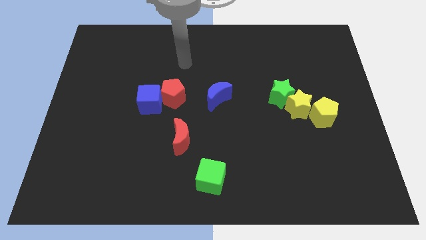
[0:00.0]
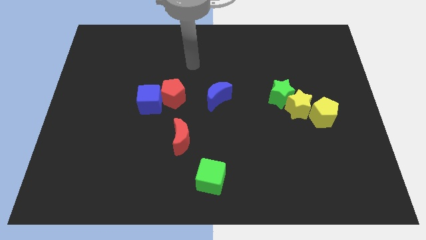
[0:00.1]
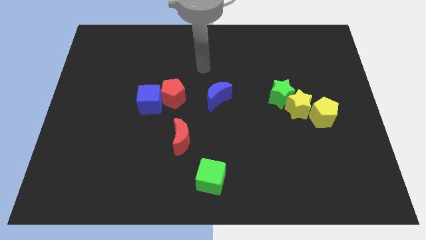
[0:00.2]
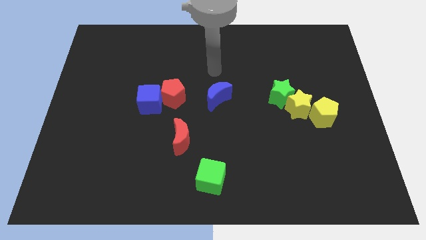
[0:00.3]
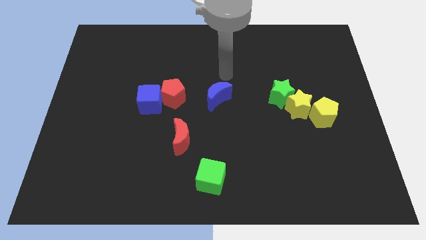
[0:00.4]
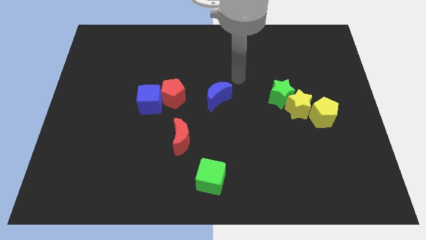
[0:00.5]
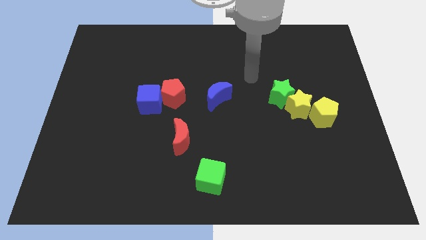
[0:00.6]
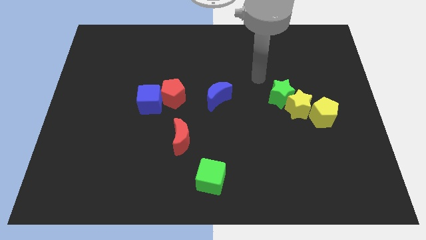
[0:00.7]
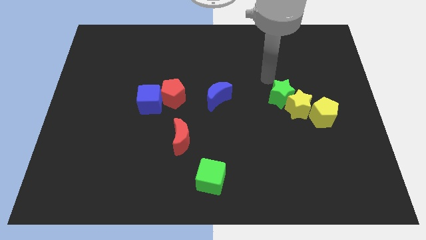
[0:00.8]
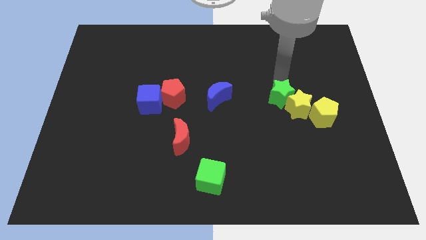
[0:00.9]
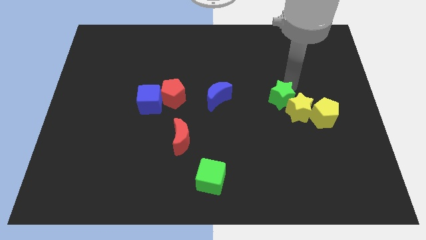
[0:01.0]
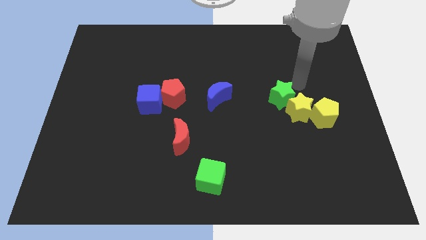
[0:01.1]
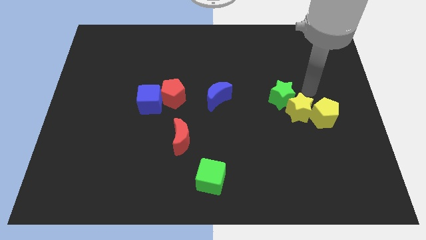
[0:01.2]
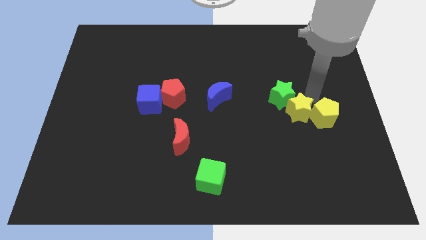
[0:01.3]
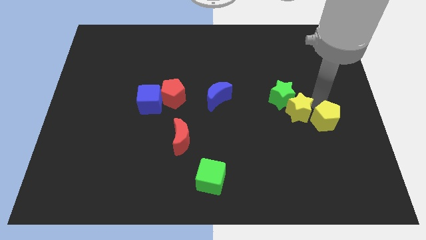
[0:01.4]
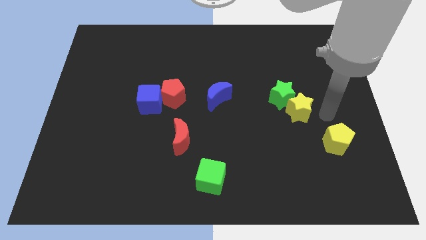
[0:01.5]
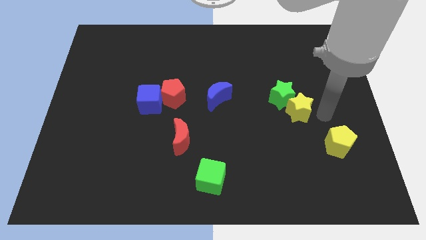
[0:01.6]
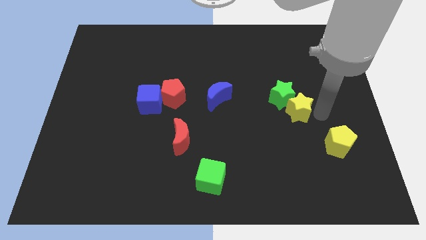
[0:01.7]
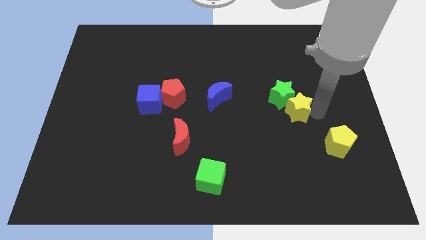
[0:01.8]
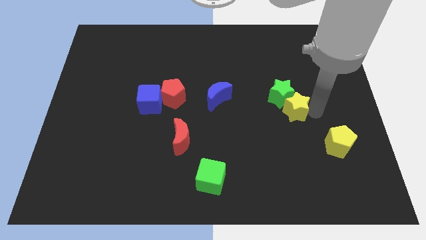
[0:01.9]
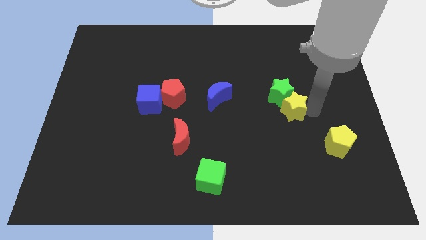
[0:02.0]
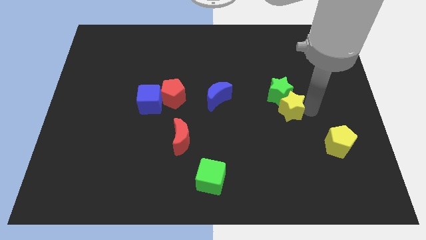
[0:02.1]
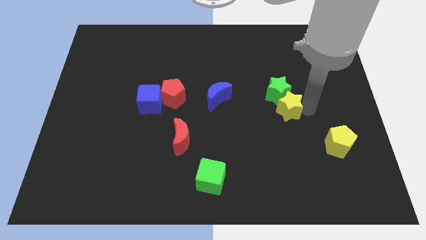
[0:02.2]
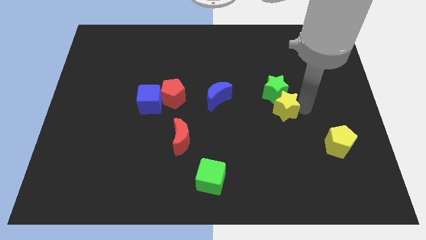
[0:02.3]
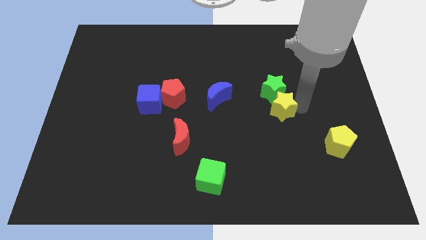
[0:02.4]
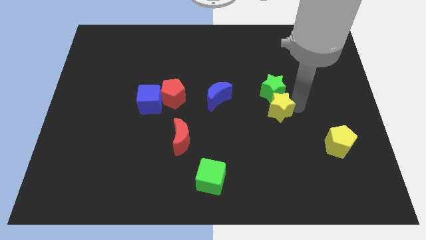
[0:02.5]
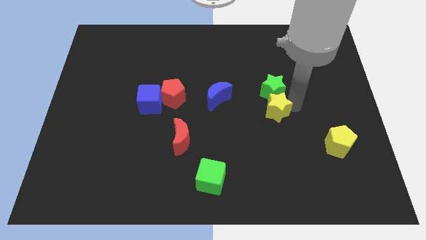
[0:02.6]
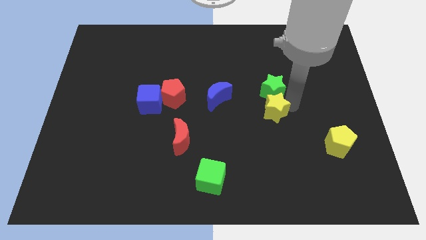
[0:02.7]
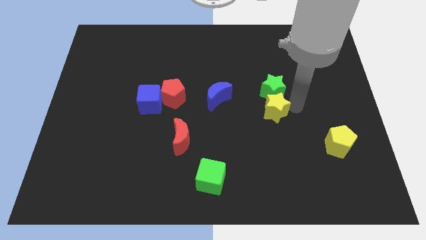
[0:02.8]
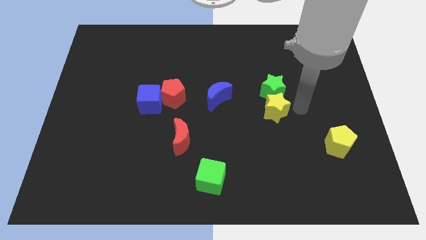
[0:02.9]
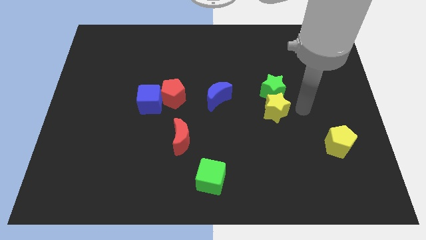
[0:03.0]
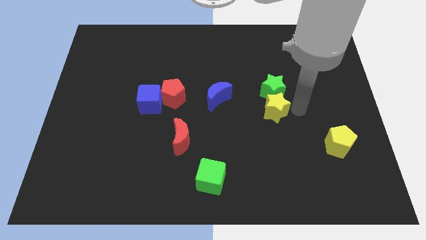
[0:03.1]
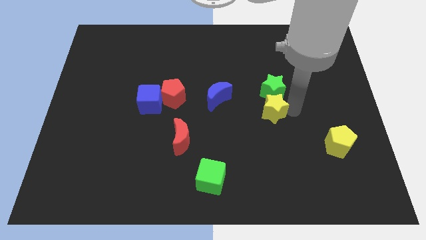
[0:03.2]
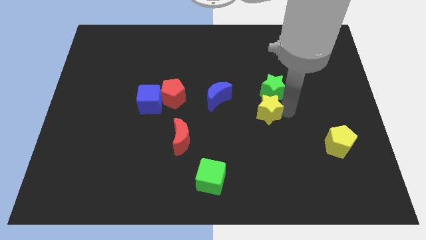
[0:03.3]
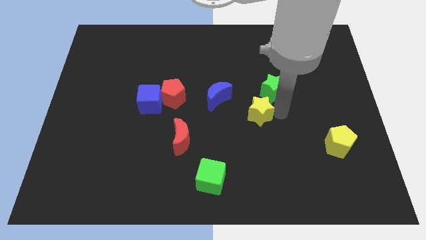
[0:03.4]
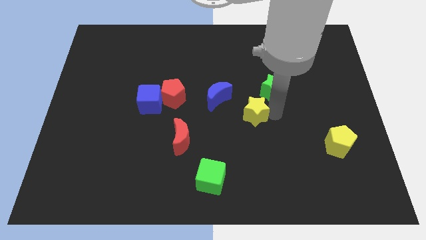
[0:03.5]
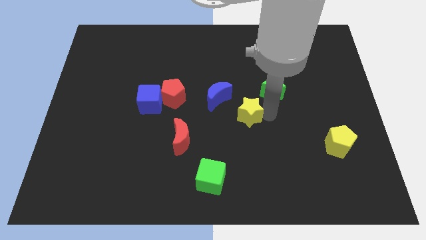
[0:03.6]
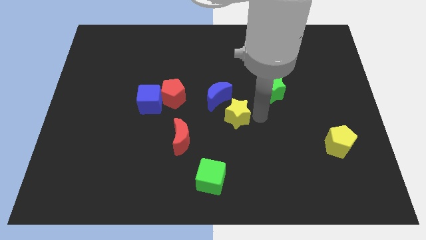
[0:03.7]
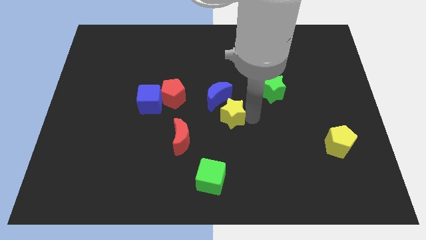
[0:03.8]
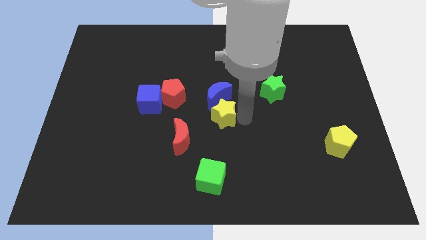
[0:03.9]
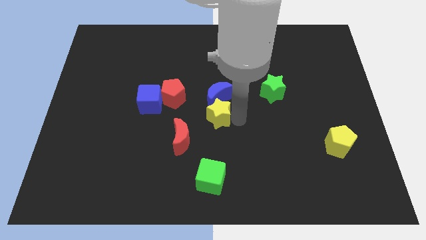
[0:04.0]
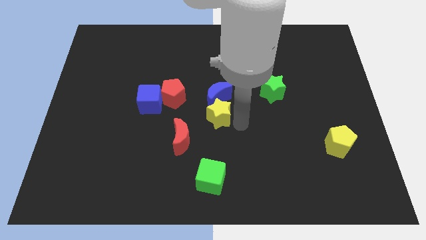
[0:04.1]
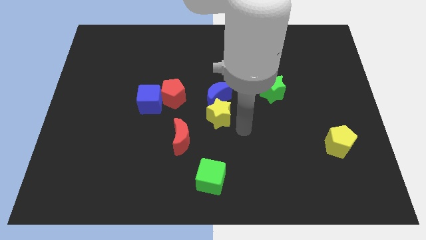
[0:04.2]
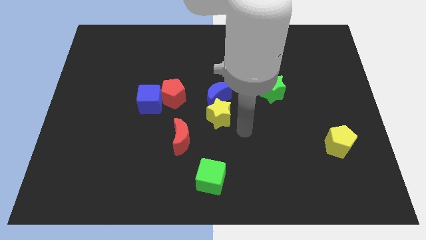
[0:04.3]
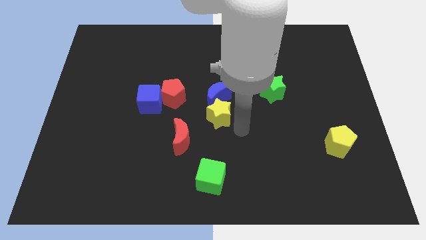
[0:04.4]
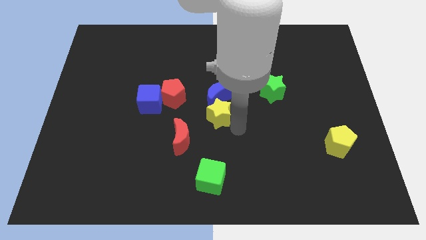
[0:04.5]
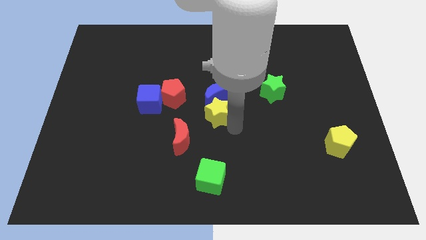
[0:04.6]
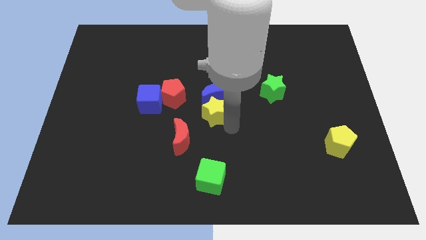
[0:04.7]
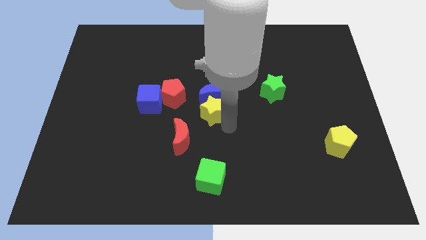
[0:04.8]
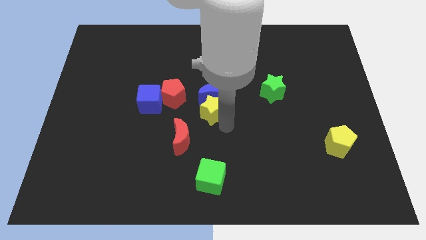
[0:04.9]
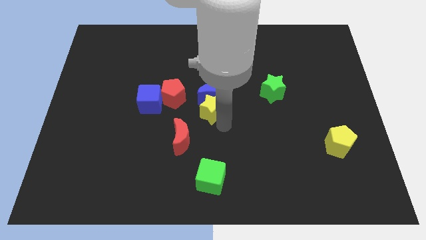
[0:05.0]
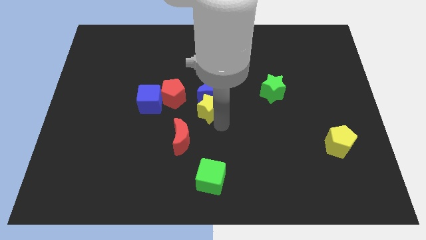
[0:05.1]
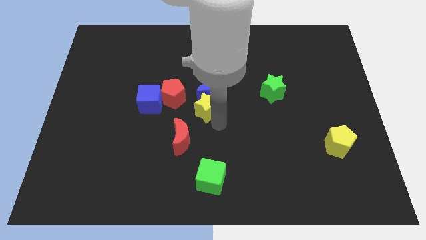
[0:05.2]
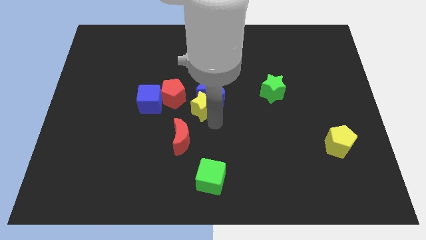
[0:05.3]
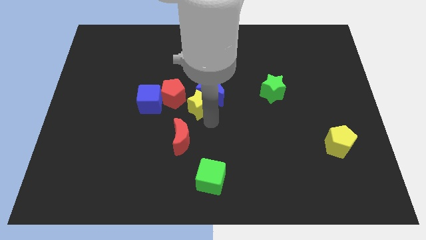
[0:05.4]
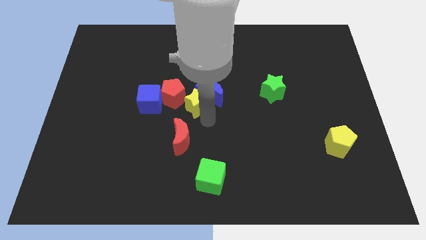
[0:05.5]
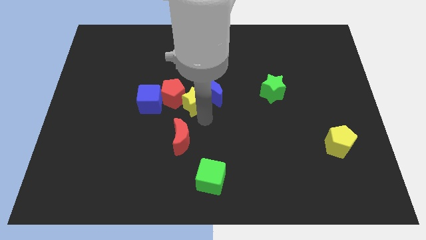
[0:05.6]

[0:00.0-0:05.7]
put the yellow star next to the red pentagon

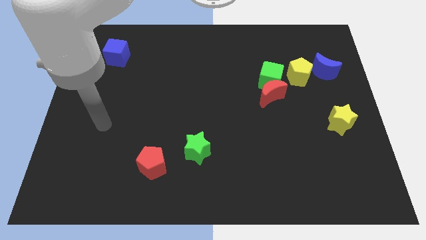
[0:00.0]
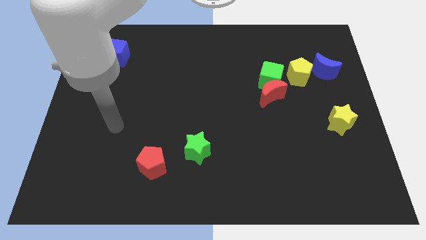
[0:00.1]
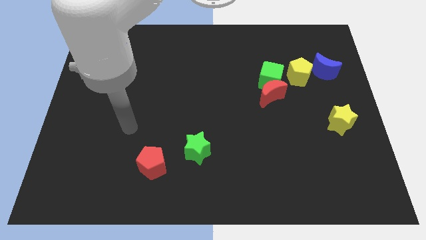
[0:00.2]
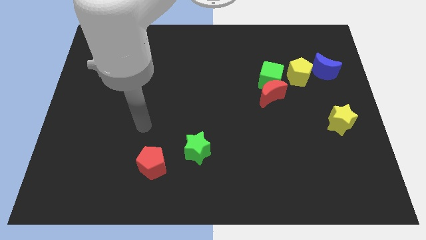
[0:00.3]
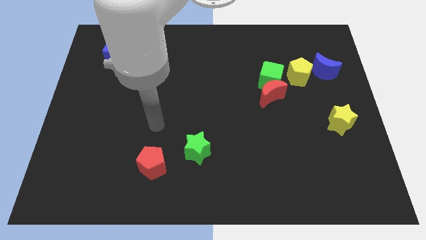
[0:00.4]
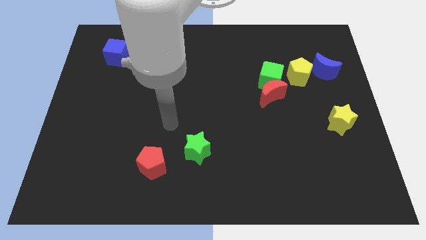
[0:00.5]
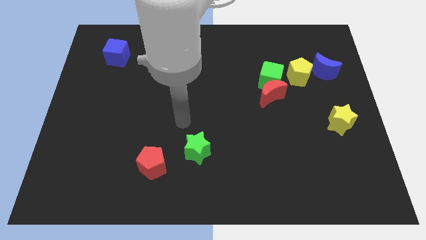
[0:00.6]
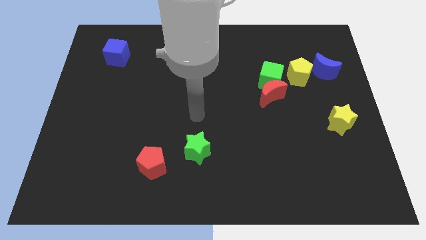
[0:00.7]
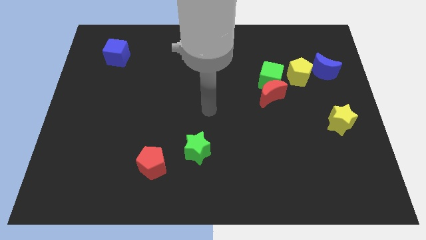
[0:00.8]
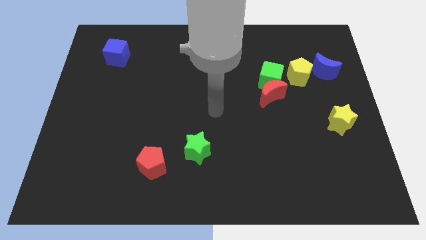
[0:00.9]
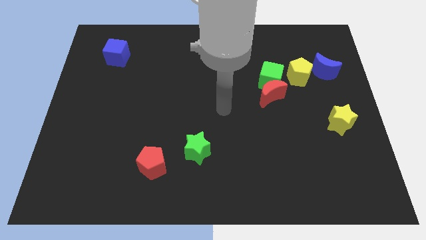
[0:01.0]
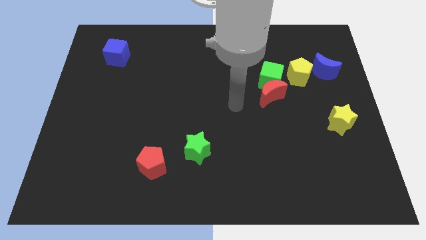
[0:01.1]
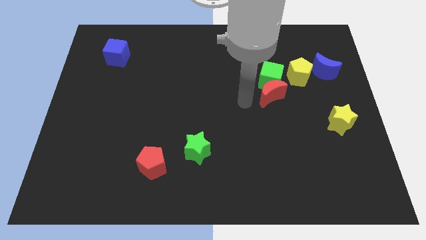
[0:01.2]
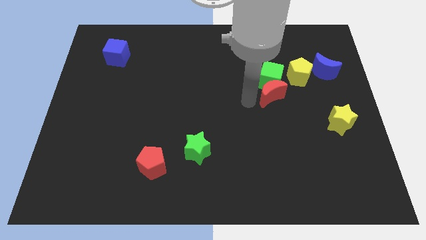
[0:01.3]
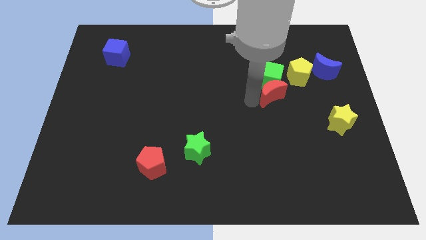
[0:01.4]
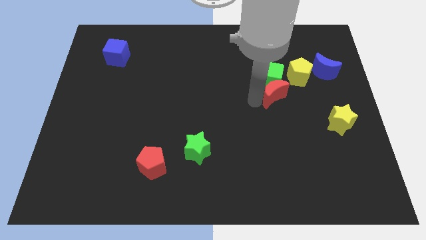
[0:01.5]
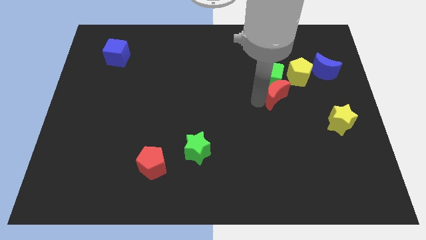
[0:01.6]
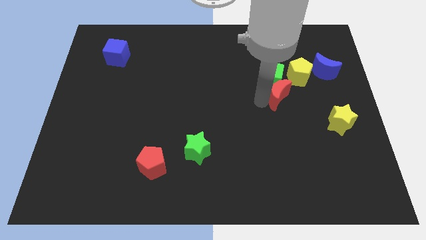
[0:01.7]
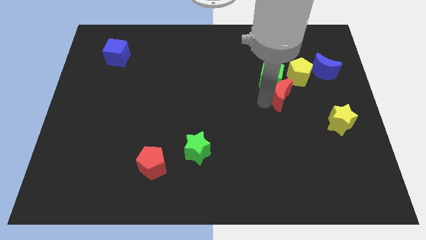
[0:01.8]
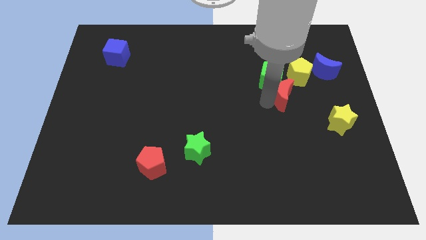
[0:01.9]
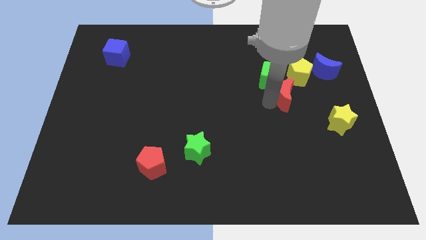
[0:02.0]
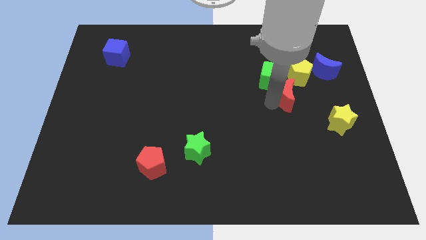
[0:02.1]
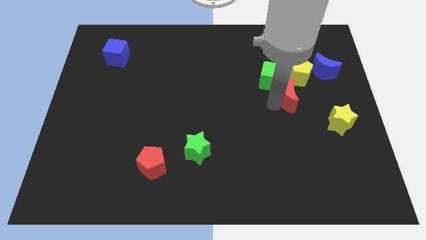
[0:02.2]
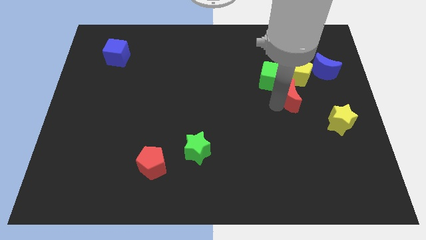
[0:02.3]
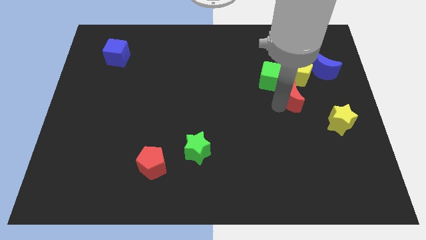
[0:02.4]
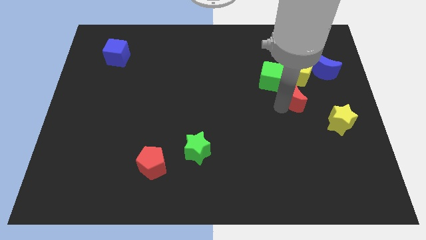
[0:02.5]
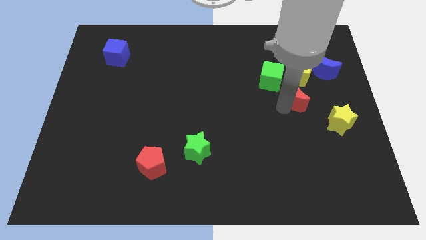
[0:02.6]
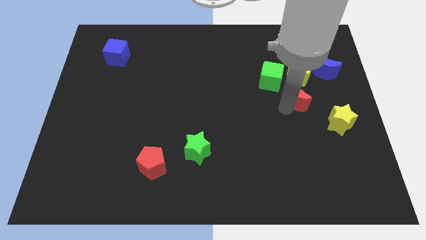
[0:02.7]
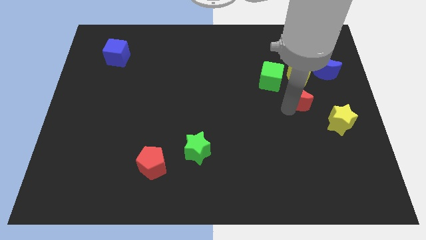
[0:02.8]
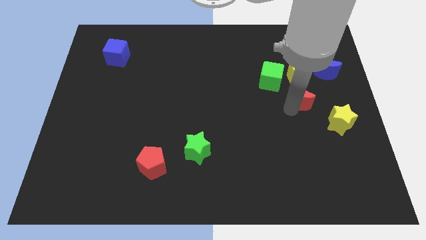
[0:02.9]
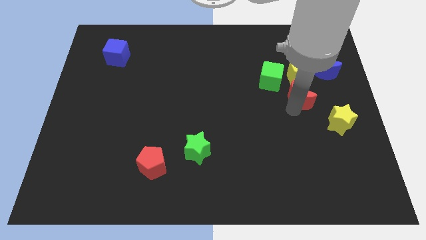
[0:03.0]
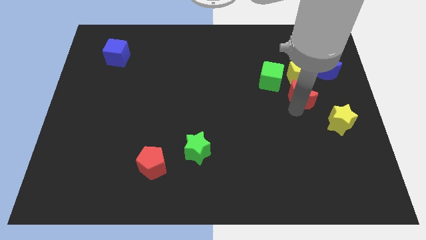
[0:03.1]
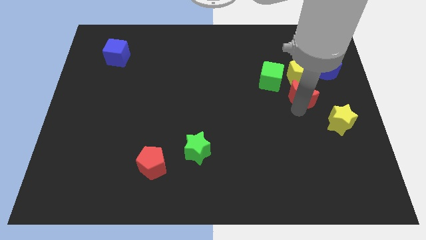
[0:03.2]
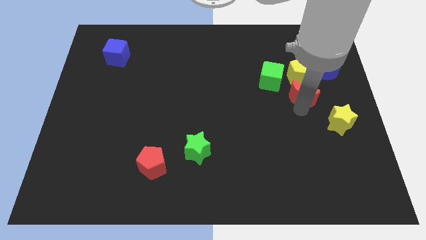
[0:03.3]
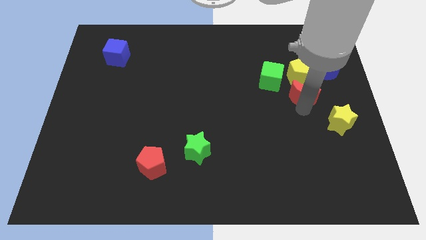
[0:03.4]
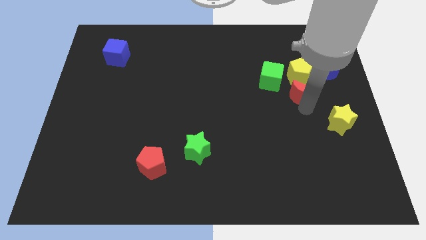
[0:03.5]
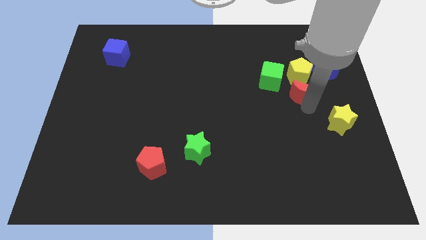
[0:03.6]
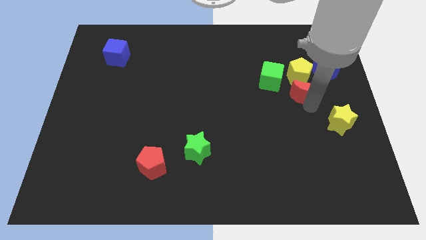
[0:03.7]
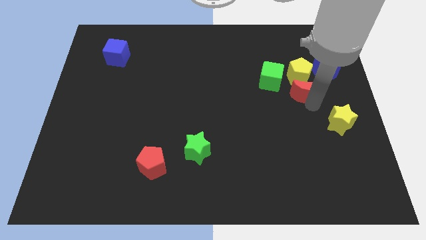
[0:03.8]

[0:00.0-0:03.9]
slide the red moon to the yellow pentagon
